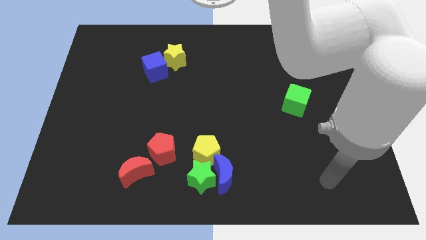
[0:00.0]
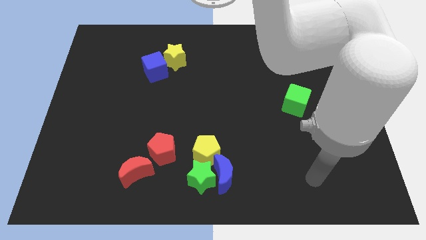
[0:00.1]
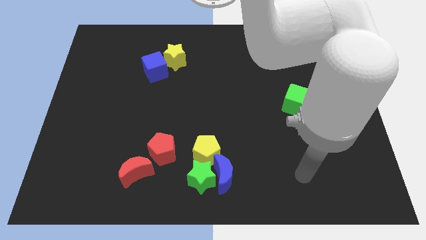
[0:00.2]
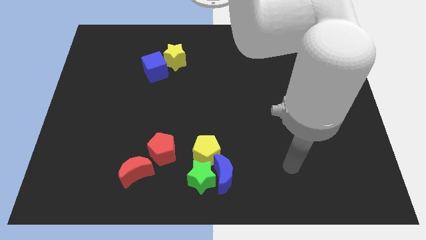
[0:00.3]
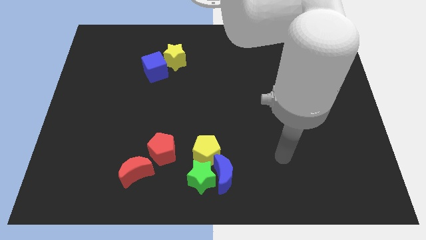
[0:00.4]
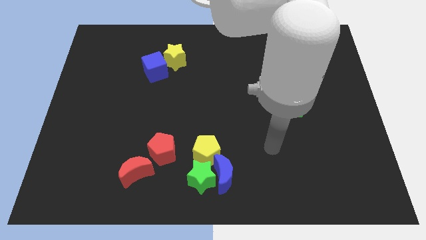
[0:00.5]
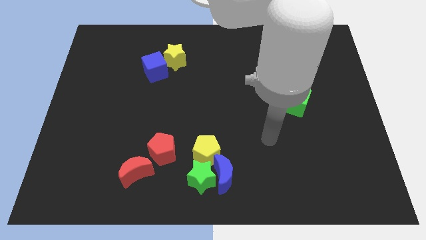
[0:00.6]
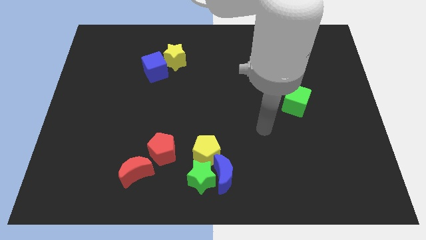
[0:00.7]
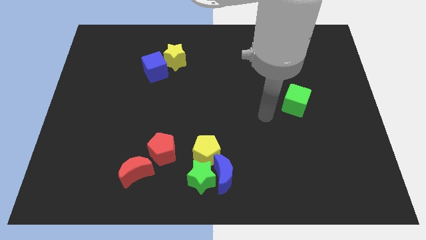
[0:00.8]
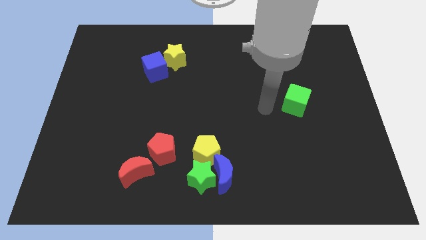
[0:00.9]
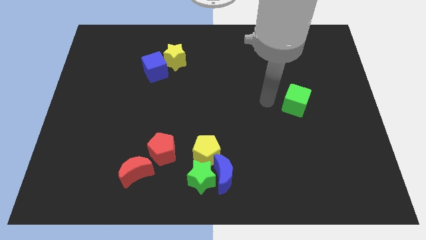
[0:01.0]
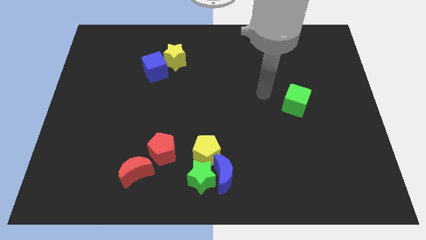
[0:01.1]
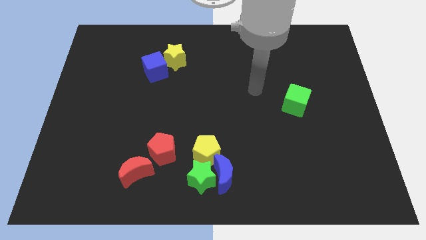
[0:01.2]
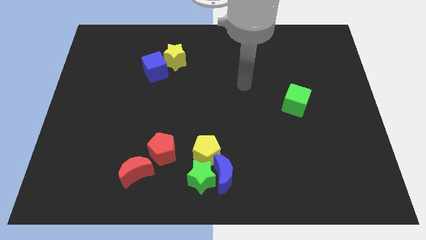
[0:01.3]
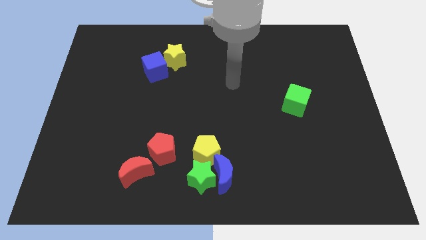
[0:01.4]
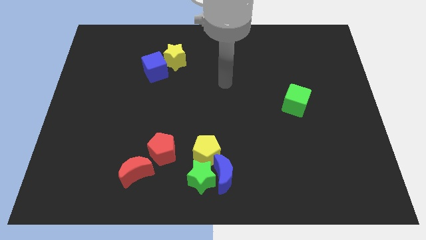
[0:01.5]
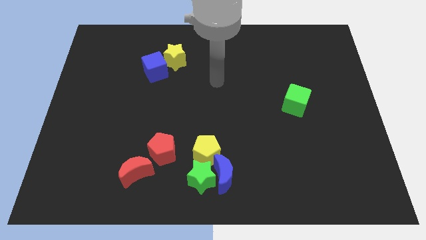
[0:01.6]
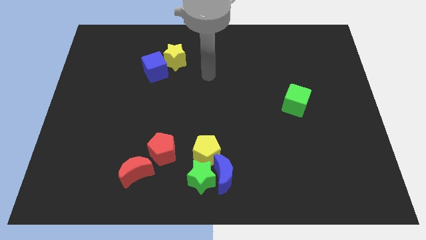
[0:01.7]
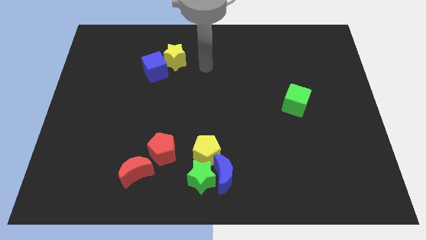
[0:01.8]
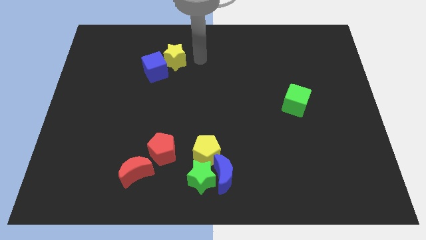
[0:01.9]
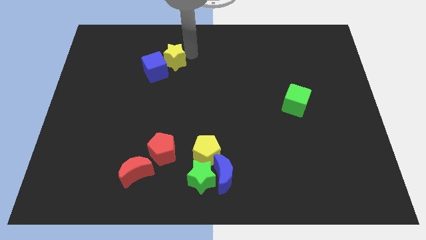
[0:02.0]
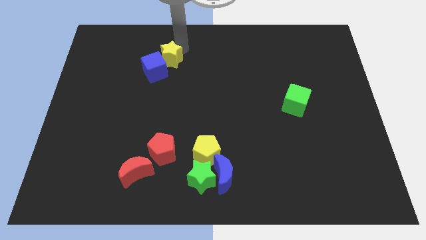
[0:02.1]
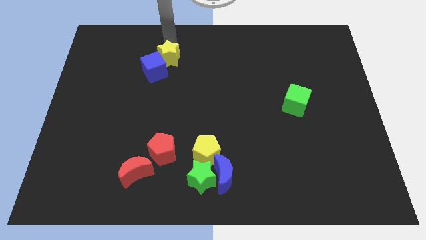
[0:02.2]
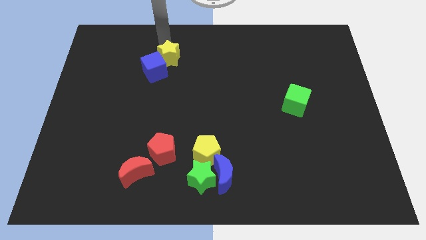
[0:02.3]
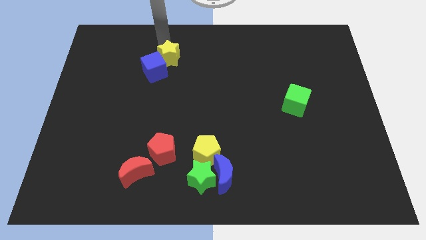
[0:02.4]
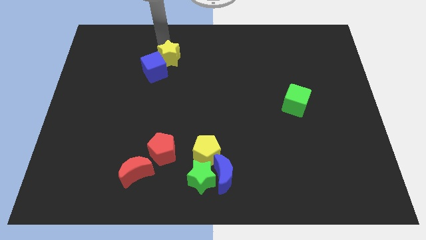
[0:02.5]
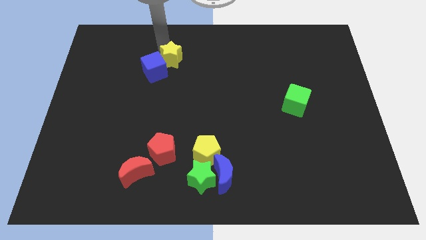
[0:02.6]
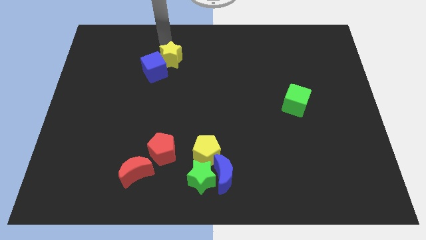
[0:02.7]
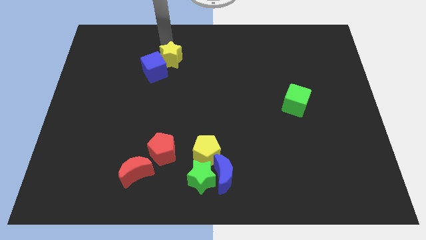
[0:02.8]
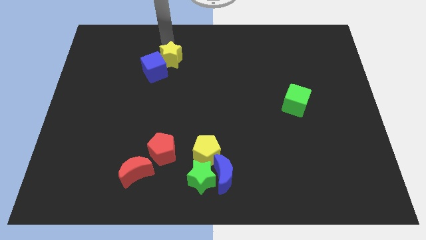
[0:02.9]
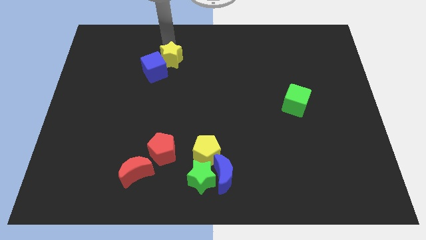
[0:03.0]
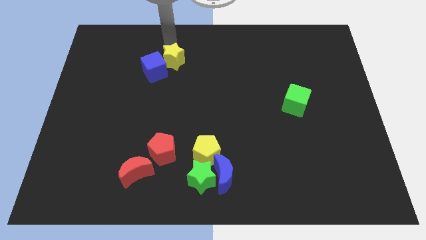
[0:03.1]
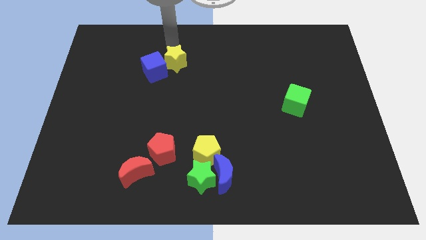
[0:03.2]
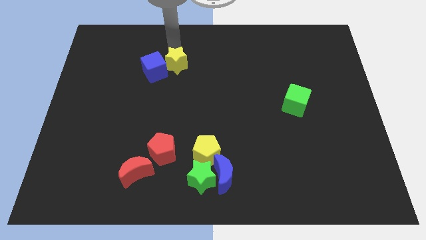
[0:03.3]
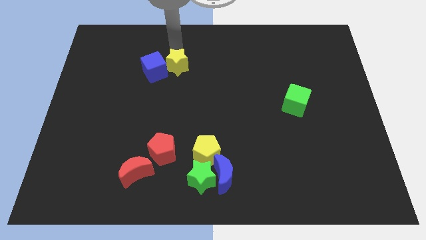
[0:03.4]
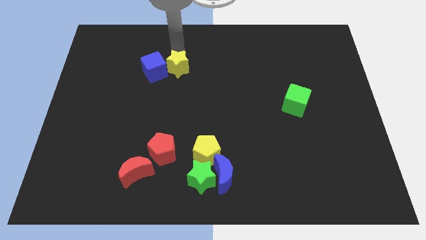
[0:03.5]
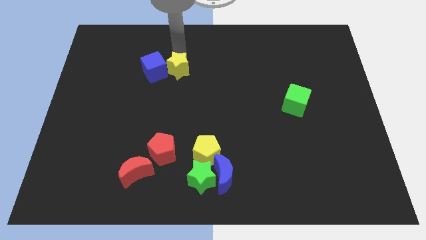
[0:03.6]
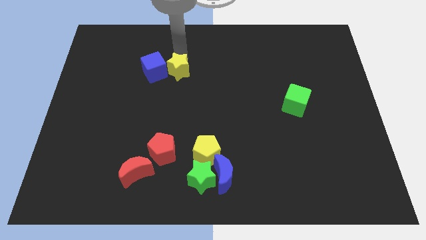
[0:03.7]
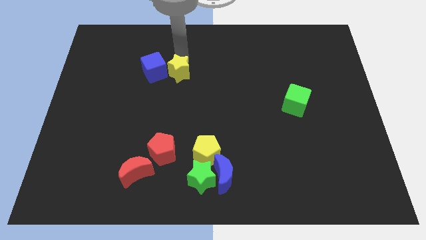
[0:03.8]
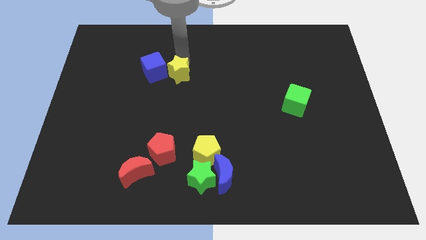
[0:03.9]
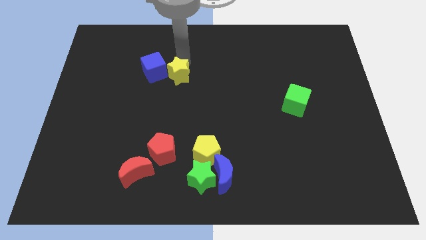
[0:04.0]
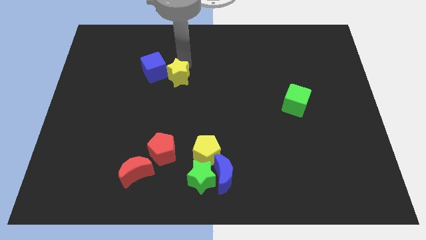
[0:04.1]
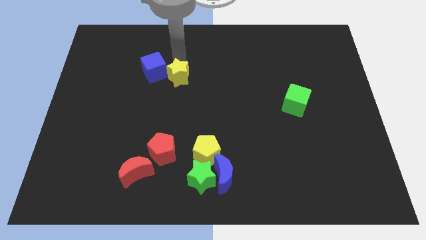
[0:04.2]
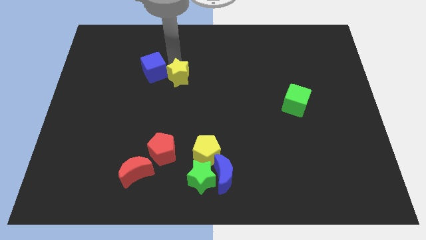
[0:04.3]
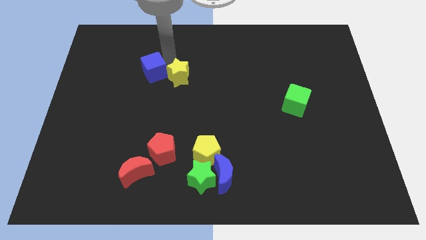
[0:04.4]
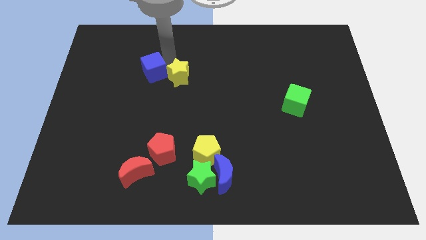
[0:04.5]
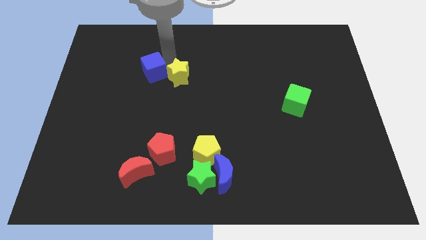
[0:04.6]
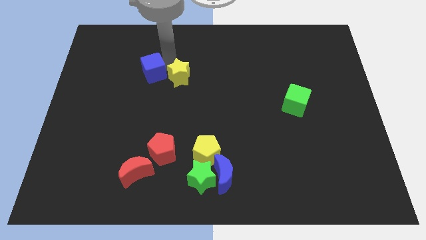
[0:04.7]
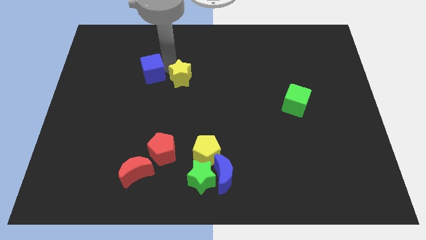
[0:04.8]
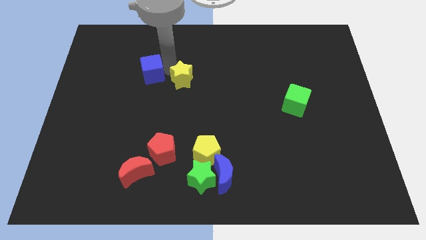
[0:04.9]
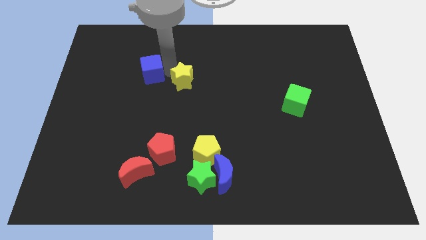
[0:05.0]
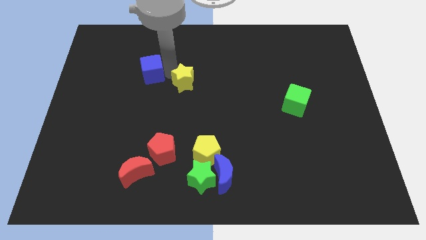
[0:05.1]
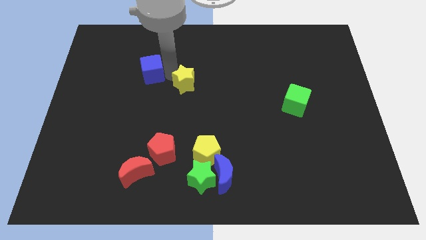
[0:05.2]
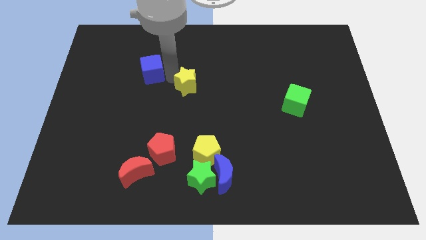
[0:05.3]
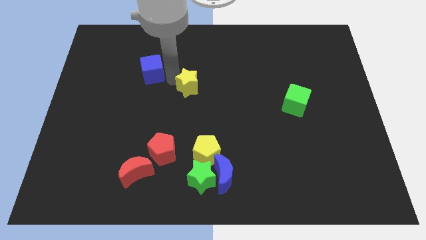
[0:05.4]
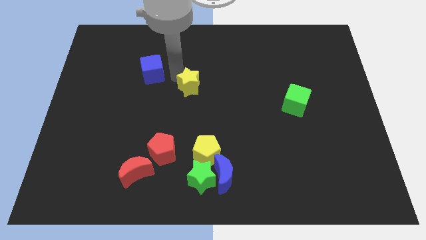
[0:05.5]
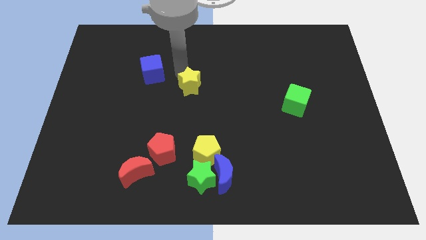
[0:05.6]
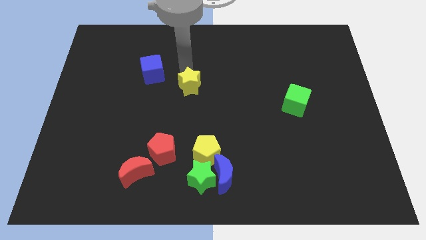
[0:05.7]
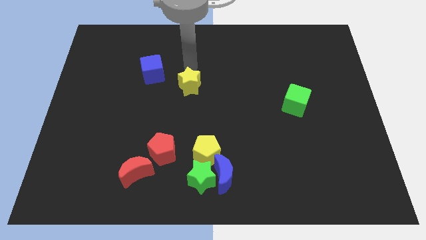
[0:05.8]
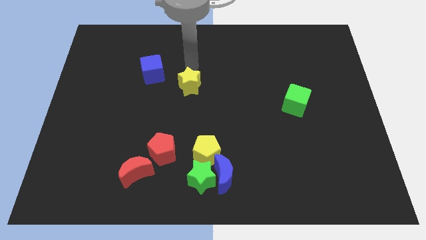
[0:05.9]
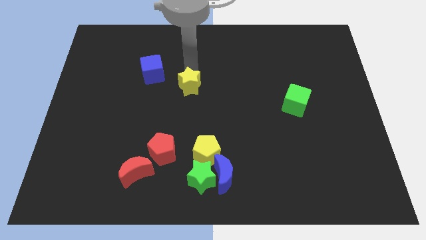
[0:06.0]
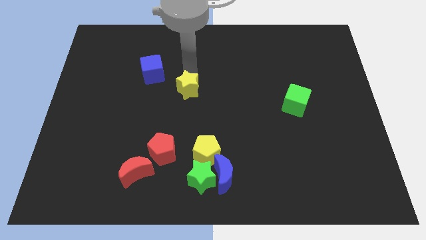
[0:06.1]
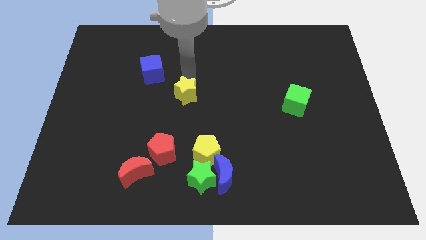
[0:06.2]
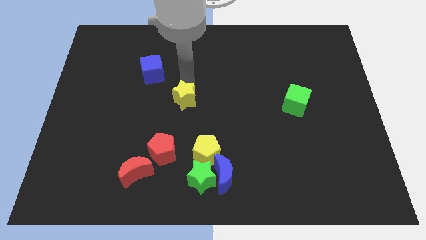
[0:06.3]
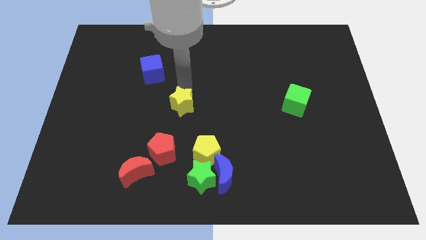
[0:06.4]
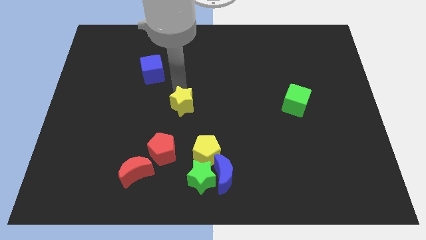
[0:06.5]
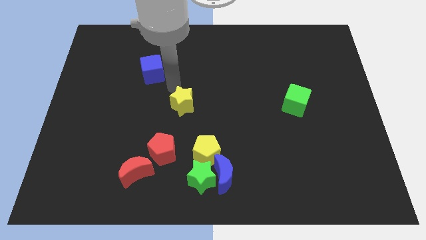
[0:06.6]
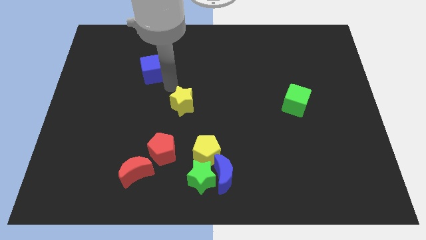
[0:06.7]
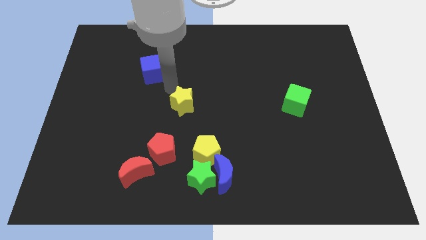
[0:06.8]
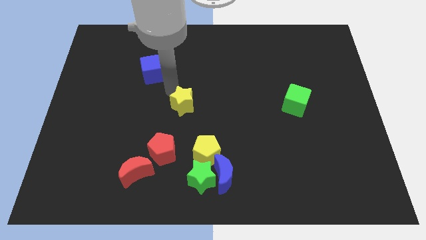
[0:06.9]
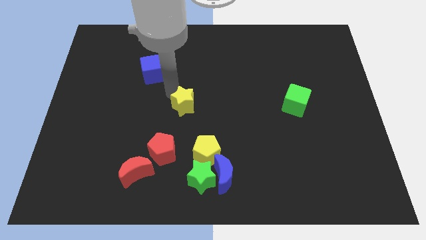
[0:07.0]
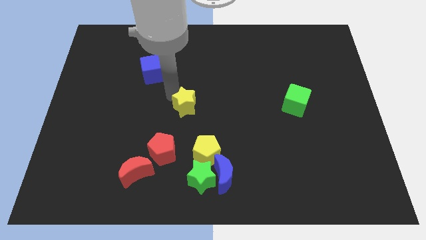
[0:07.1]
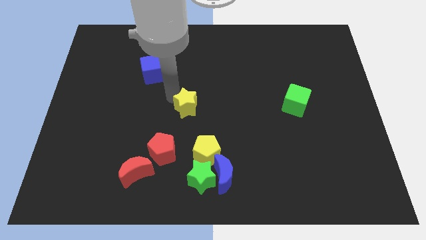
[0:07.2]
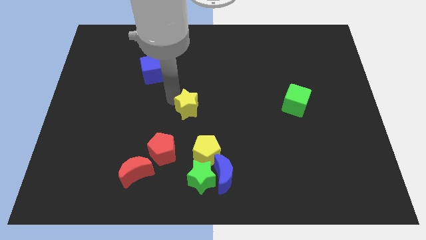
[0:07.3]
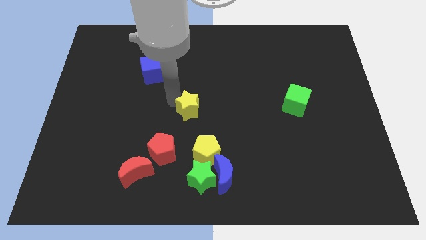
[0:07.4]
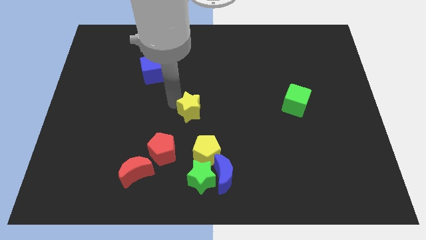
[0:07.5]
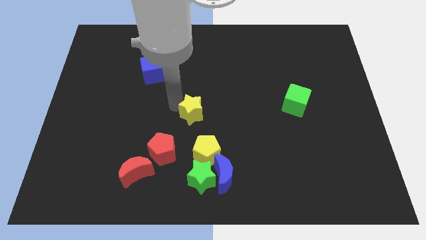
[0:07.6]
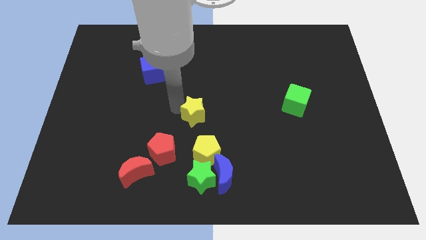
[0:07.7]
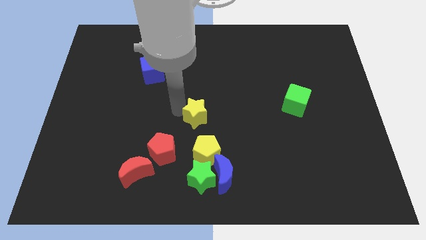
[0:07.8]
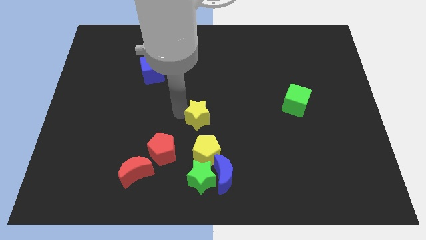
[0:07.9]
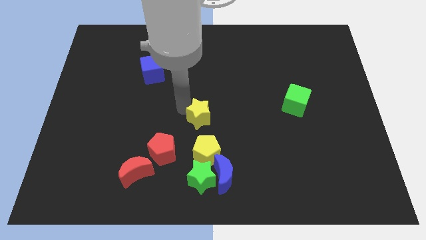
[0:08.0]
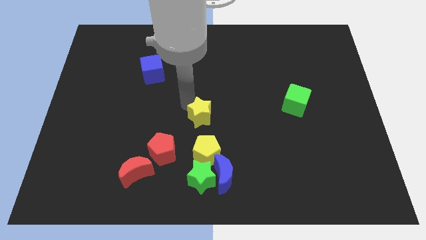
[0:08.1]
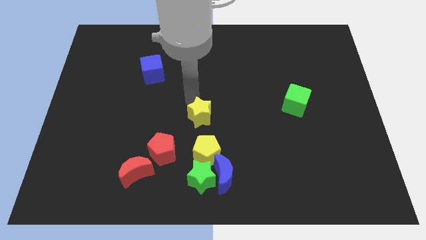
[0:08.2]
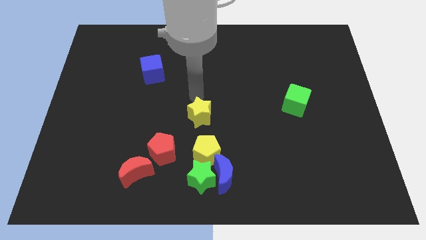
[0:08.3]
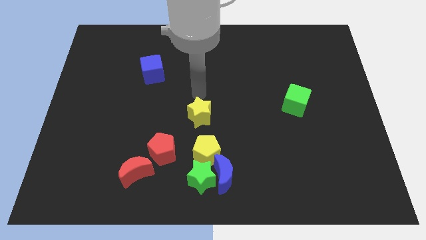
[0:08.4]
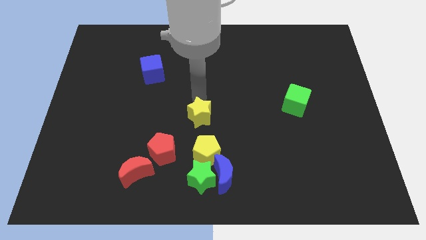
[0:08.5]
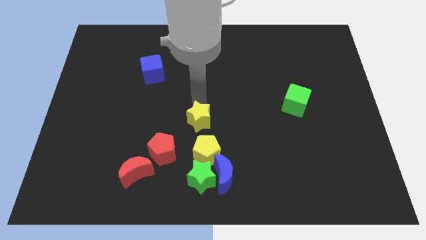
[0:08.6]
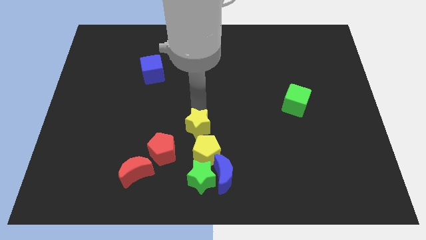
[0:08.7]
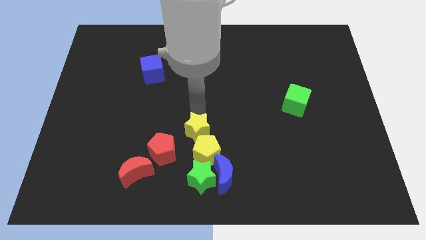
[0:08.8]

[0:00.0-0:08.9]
push the yellow star next to the yellow pentagon
